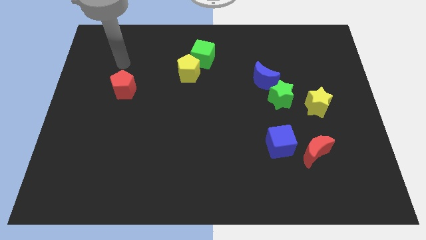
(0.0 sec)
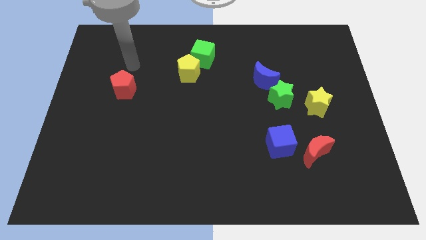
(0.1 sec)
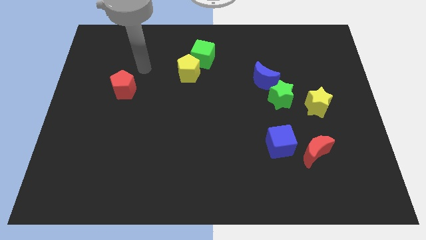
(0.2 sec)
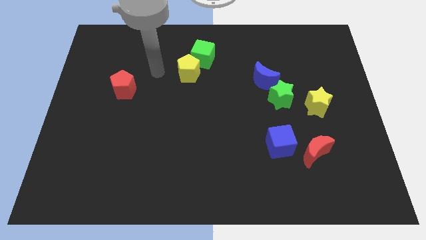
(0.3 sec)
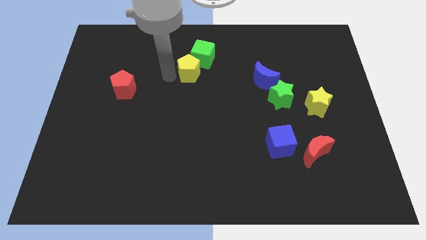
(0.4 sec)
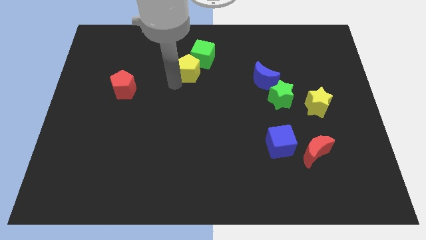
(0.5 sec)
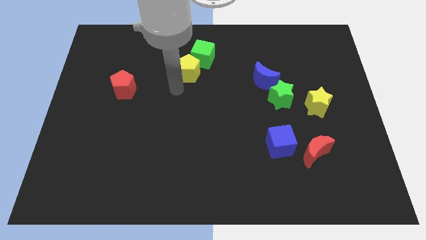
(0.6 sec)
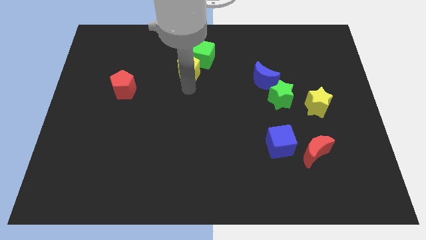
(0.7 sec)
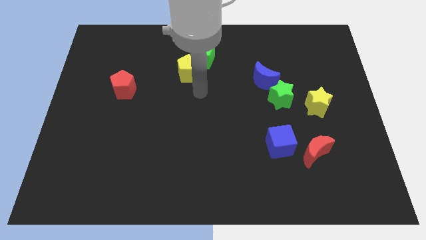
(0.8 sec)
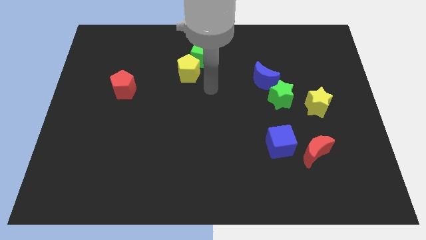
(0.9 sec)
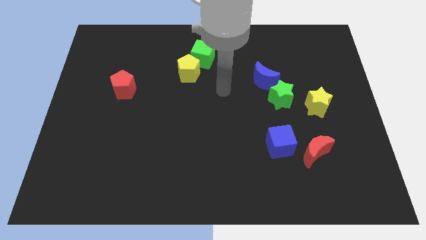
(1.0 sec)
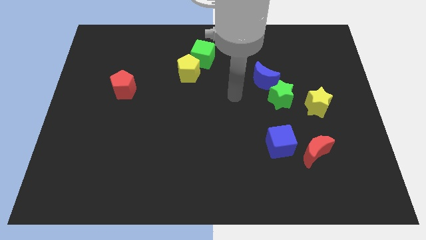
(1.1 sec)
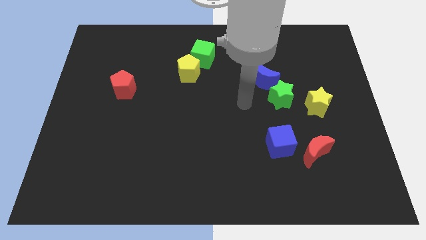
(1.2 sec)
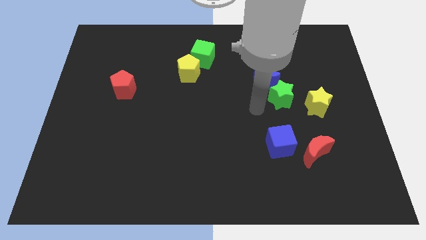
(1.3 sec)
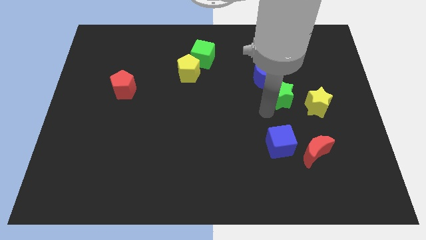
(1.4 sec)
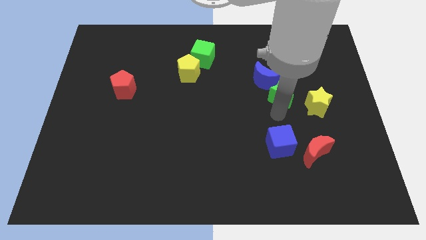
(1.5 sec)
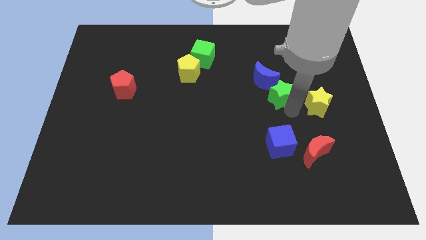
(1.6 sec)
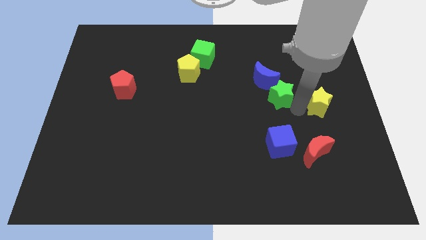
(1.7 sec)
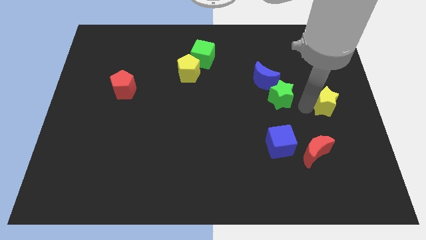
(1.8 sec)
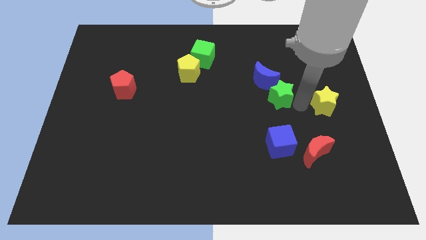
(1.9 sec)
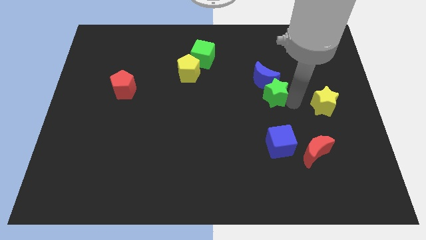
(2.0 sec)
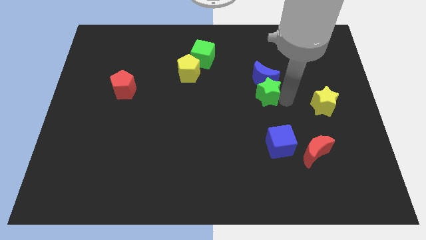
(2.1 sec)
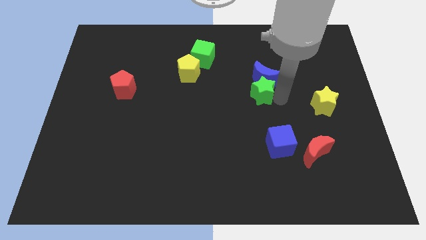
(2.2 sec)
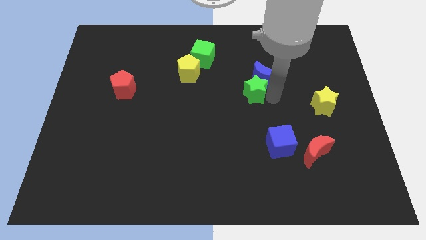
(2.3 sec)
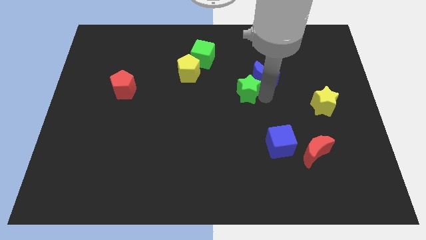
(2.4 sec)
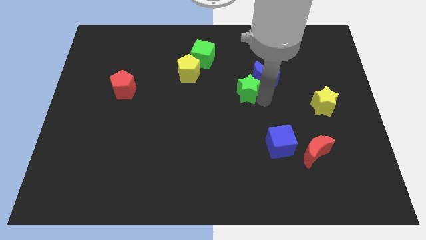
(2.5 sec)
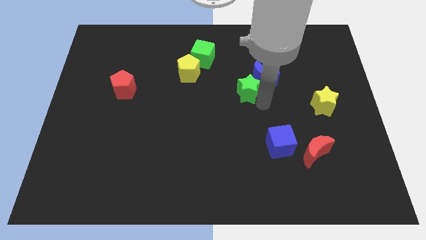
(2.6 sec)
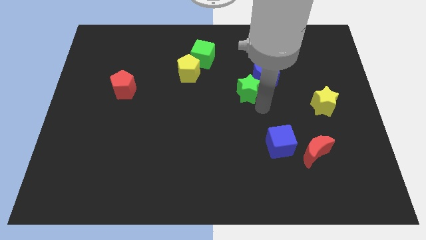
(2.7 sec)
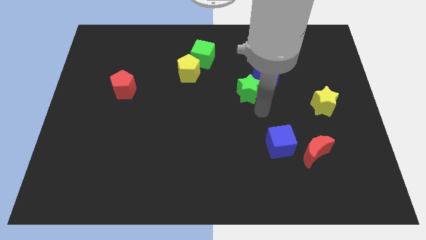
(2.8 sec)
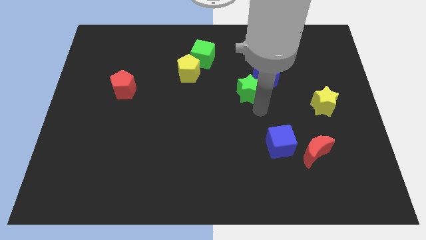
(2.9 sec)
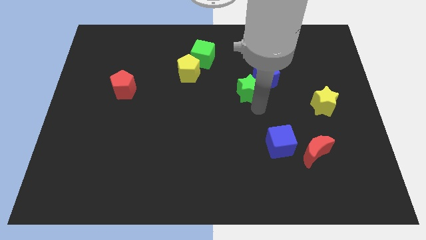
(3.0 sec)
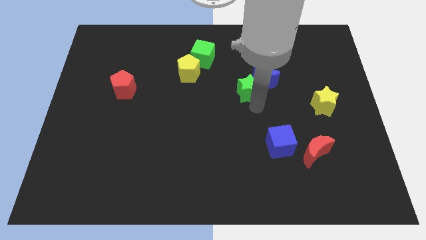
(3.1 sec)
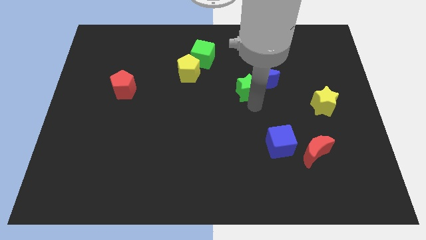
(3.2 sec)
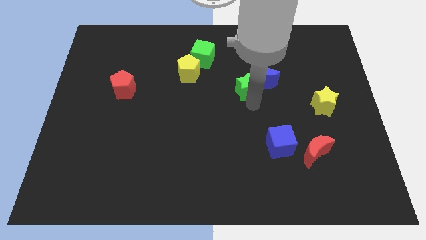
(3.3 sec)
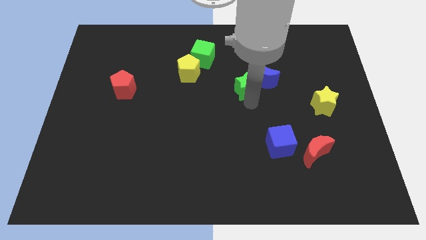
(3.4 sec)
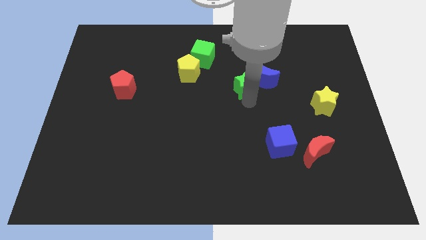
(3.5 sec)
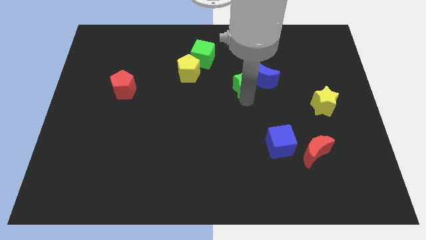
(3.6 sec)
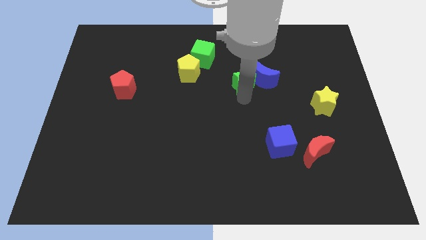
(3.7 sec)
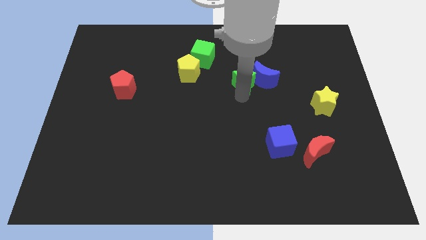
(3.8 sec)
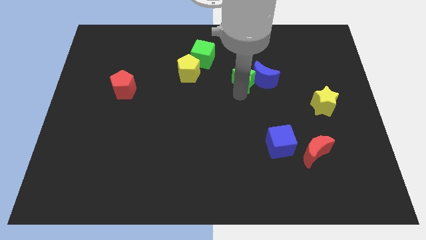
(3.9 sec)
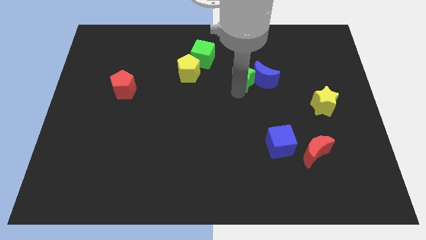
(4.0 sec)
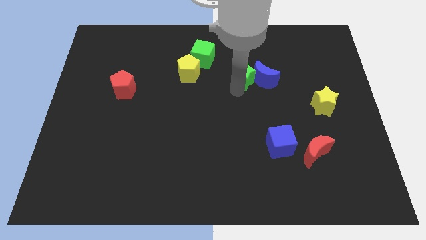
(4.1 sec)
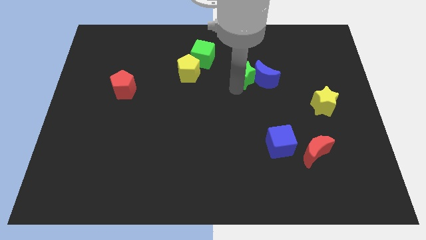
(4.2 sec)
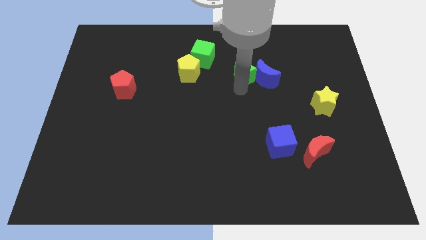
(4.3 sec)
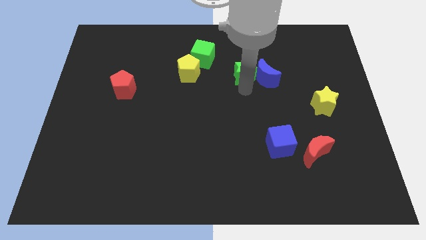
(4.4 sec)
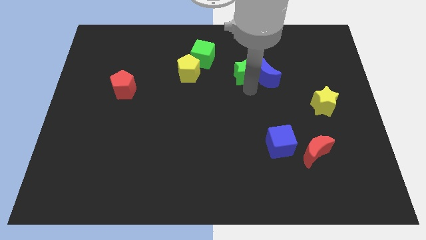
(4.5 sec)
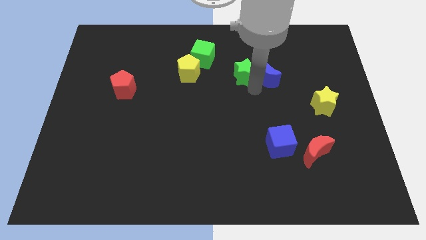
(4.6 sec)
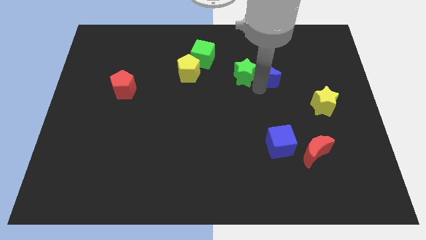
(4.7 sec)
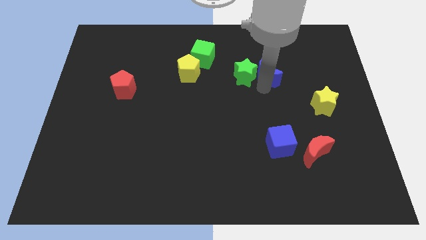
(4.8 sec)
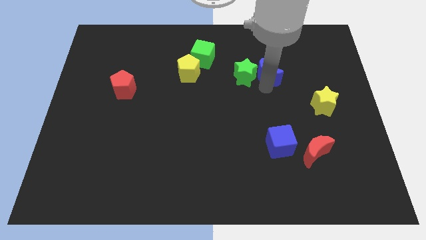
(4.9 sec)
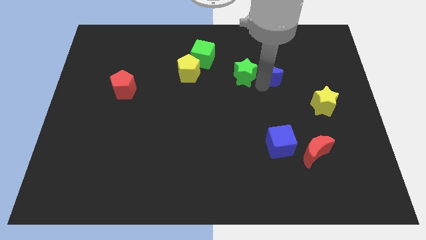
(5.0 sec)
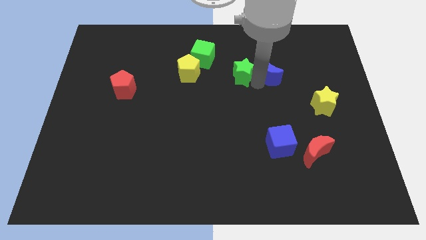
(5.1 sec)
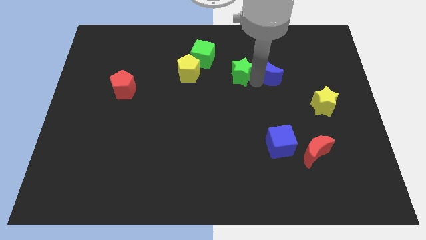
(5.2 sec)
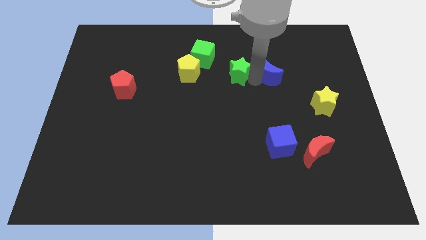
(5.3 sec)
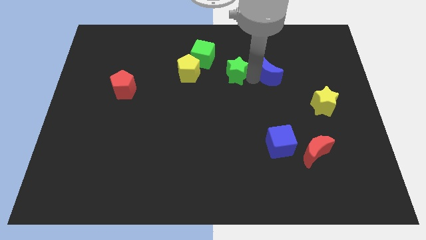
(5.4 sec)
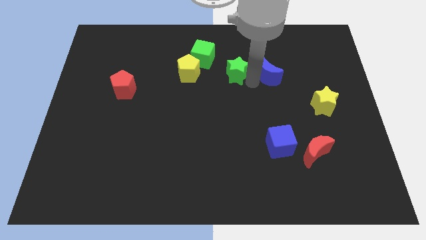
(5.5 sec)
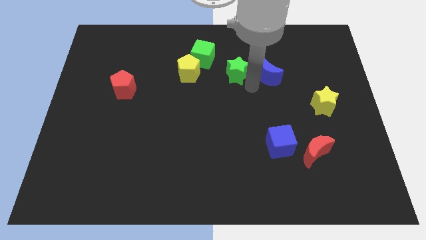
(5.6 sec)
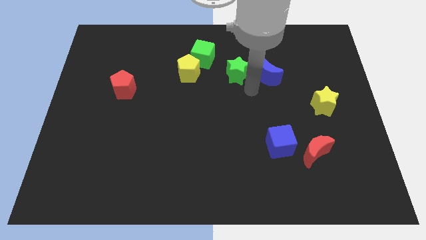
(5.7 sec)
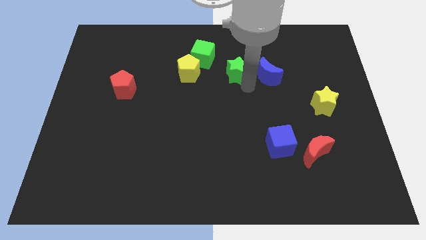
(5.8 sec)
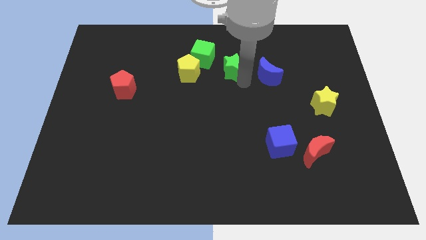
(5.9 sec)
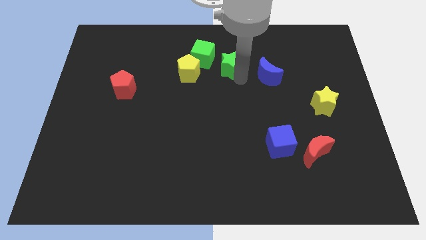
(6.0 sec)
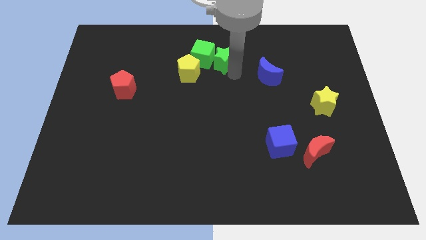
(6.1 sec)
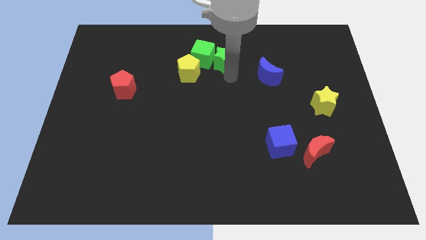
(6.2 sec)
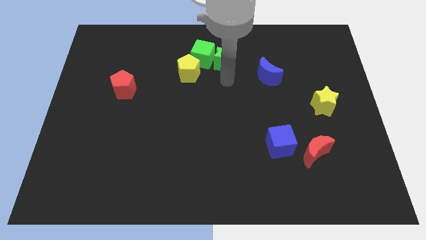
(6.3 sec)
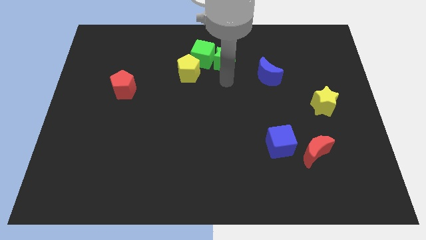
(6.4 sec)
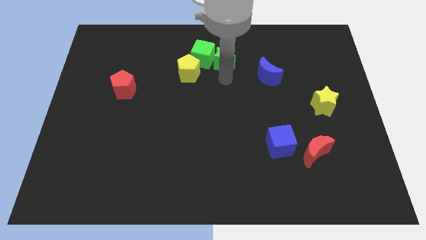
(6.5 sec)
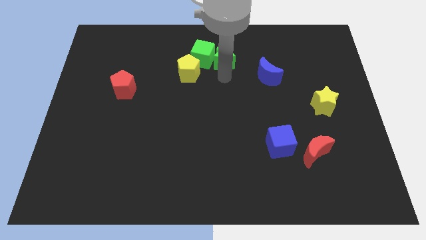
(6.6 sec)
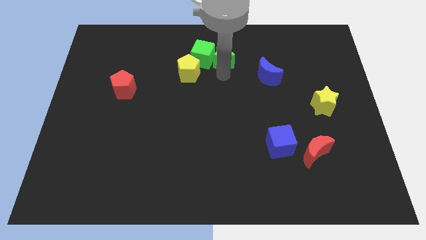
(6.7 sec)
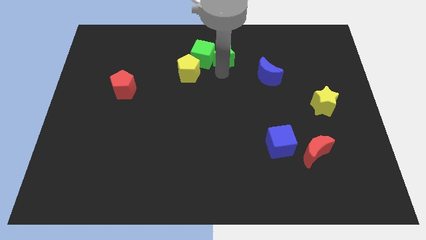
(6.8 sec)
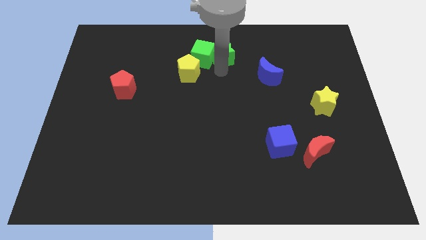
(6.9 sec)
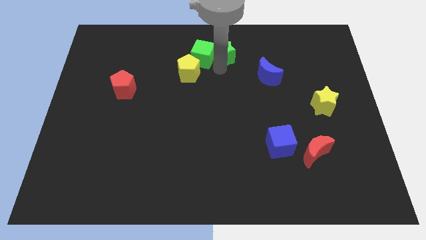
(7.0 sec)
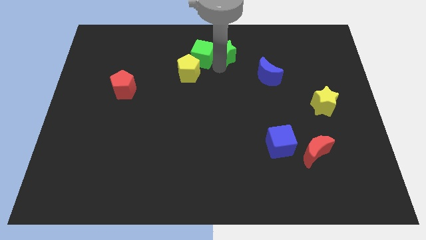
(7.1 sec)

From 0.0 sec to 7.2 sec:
put the green star to the top side
